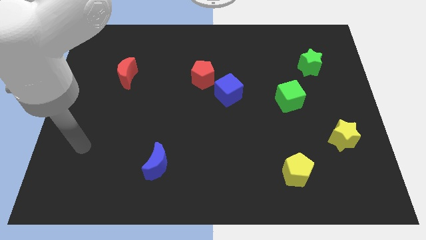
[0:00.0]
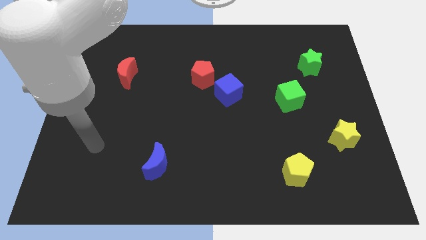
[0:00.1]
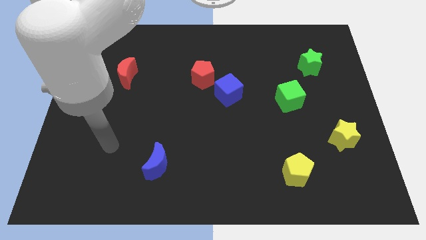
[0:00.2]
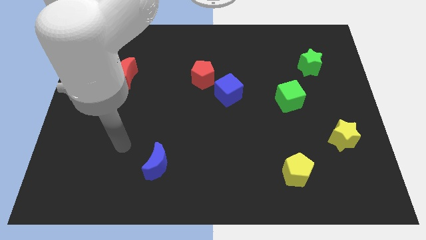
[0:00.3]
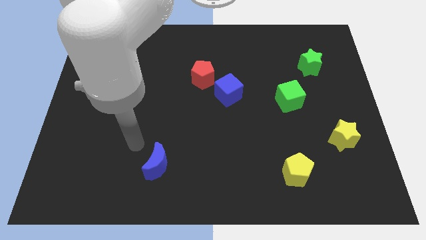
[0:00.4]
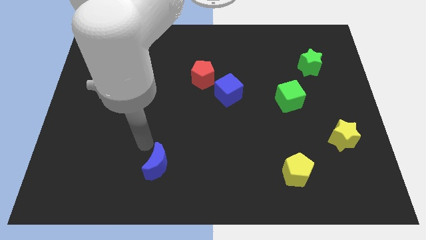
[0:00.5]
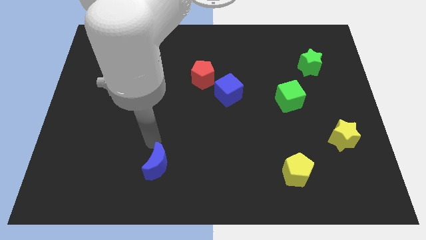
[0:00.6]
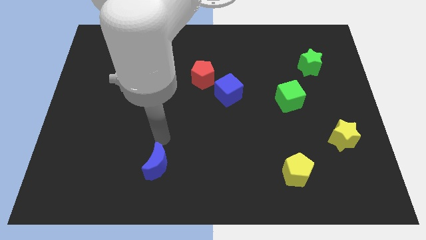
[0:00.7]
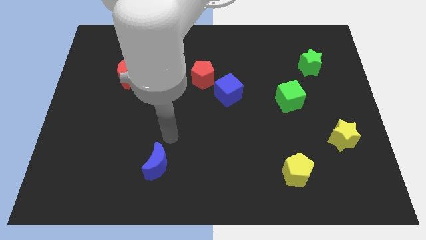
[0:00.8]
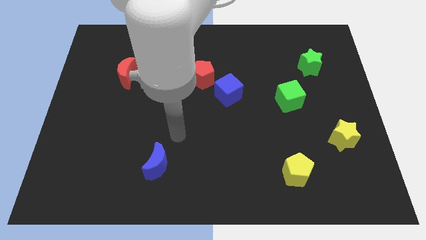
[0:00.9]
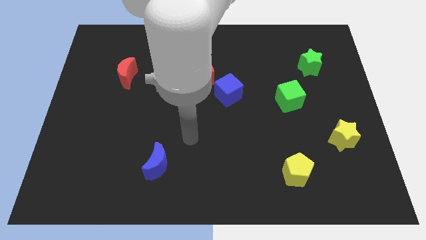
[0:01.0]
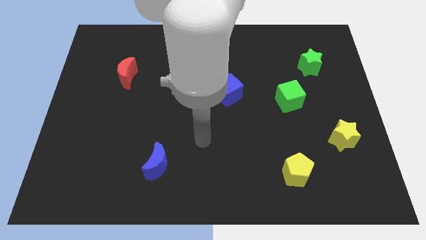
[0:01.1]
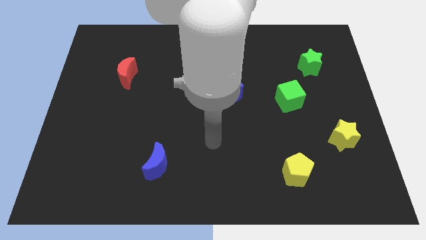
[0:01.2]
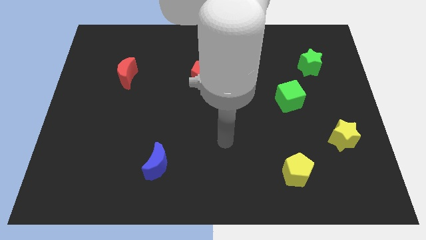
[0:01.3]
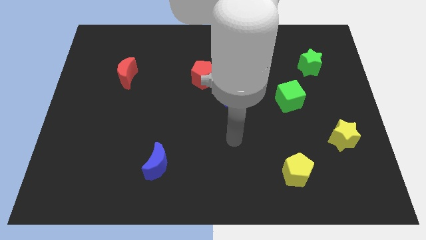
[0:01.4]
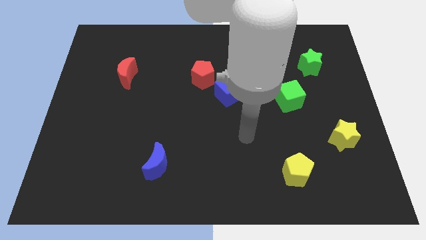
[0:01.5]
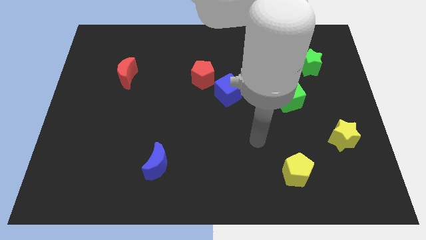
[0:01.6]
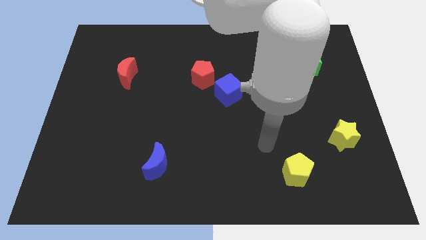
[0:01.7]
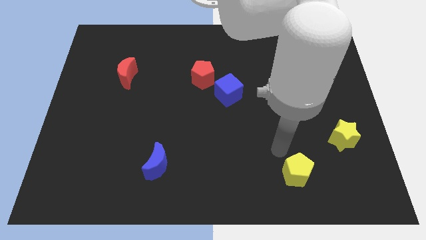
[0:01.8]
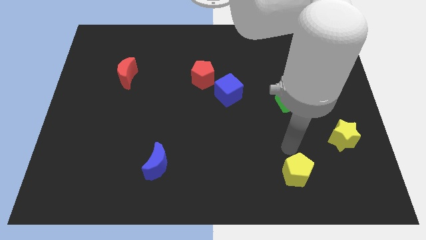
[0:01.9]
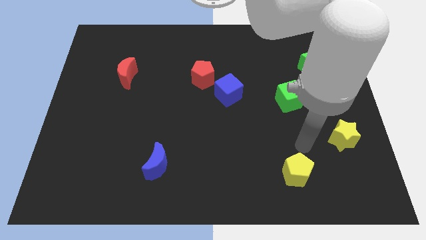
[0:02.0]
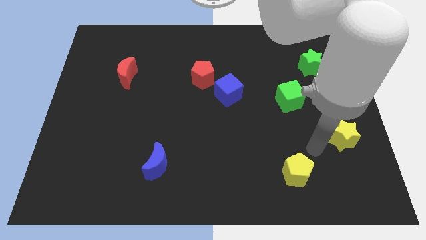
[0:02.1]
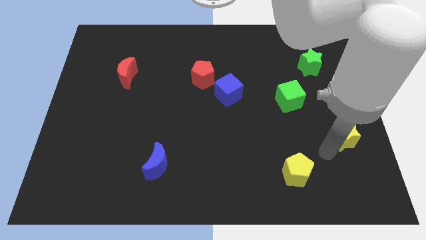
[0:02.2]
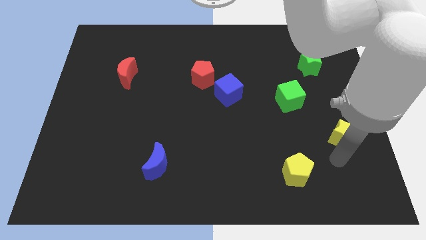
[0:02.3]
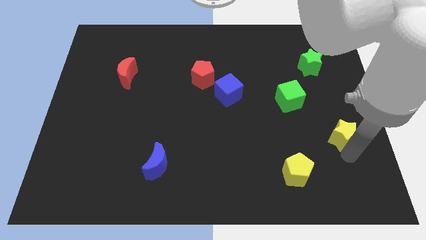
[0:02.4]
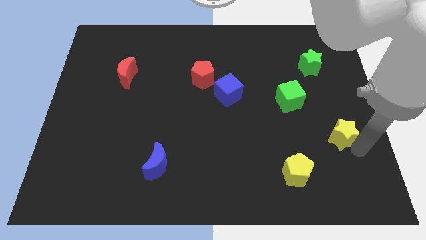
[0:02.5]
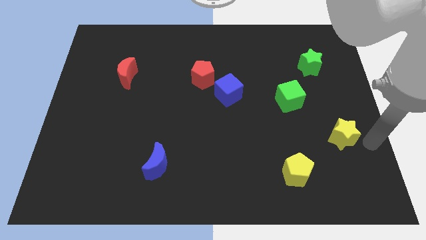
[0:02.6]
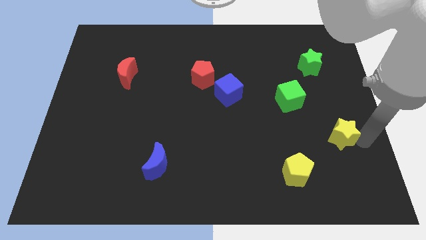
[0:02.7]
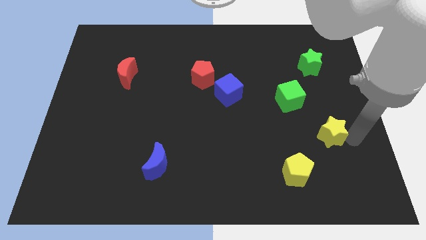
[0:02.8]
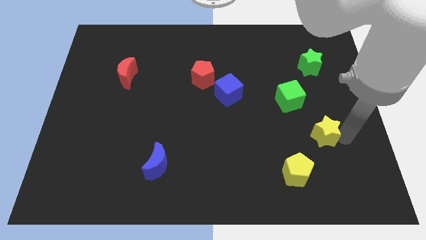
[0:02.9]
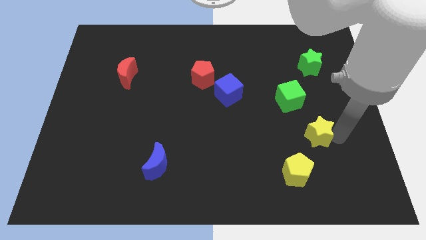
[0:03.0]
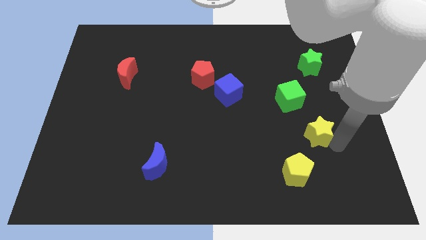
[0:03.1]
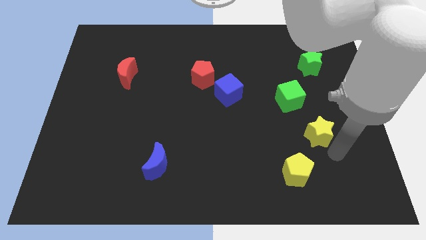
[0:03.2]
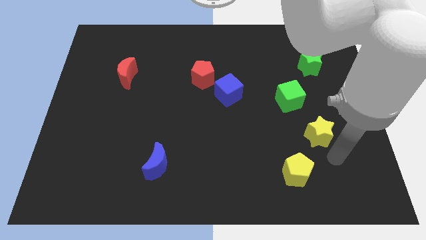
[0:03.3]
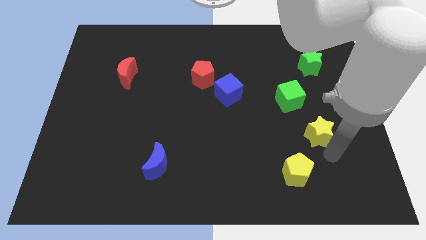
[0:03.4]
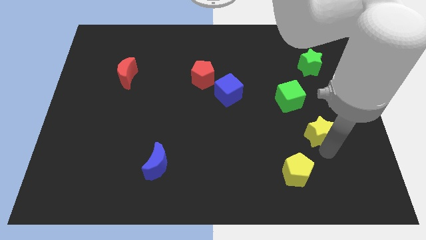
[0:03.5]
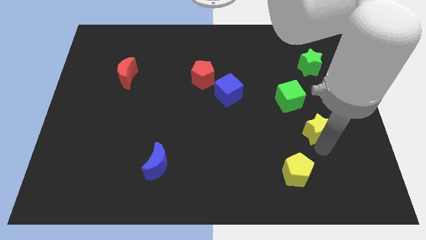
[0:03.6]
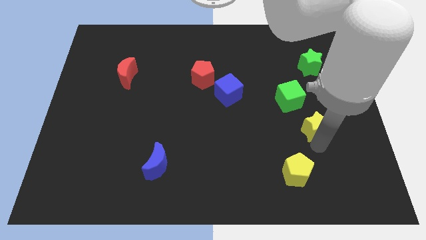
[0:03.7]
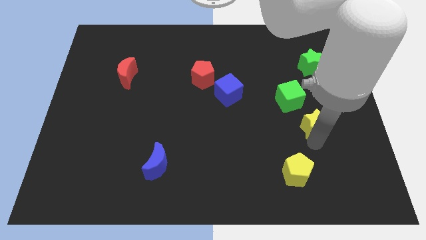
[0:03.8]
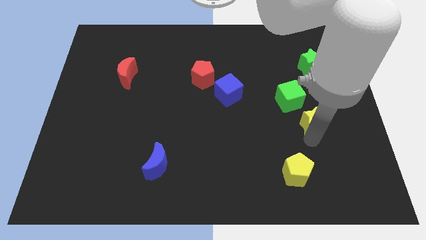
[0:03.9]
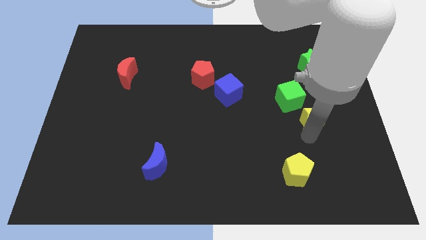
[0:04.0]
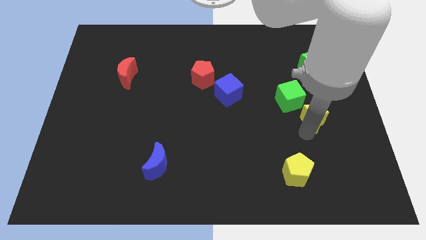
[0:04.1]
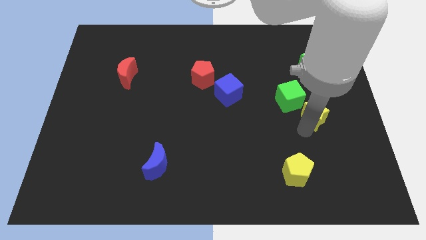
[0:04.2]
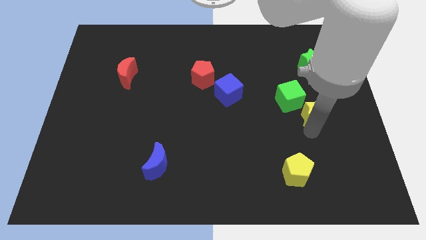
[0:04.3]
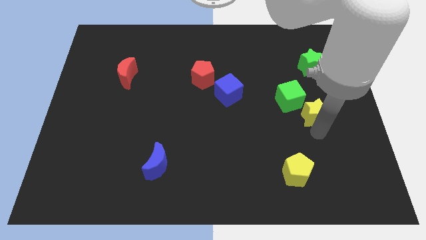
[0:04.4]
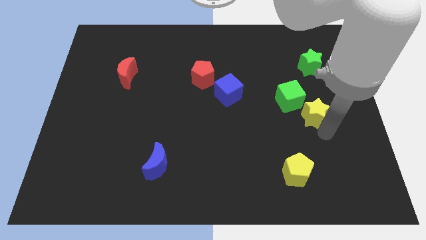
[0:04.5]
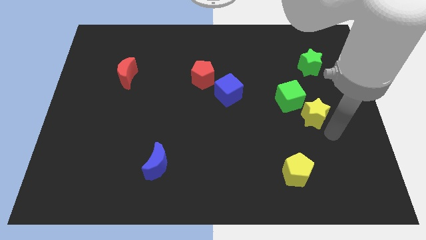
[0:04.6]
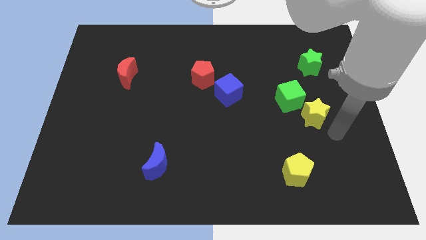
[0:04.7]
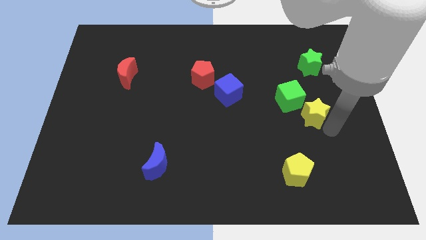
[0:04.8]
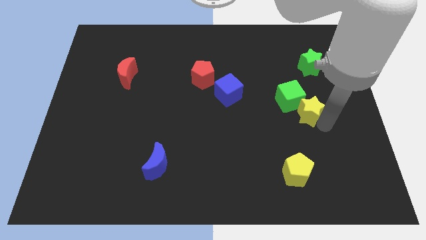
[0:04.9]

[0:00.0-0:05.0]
push the yellow star towards the green cube

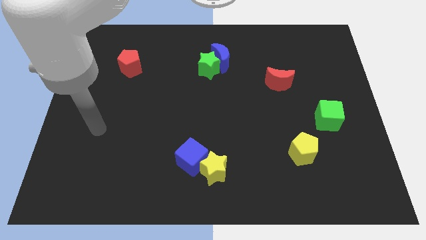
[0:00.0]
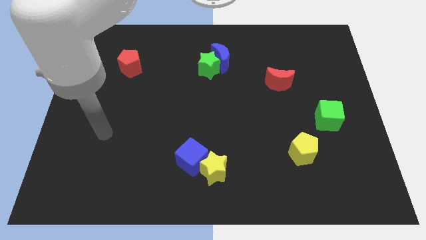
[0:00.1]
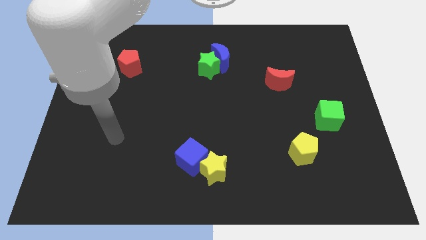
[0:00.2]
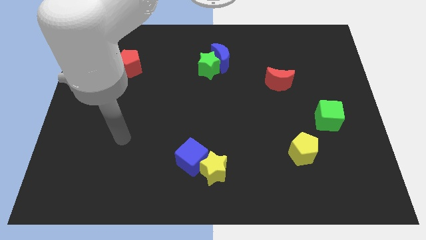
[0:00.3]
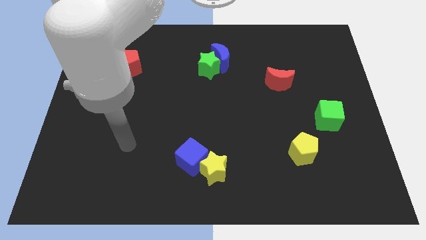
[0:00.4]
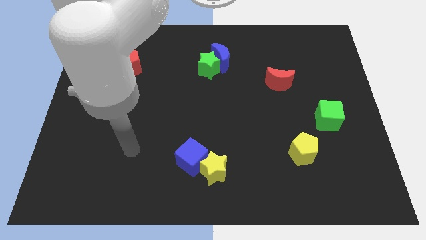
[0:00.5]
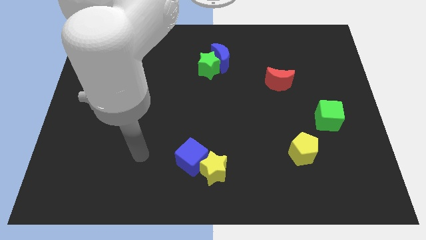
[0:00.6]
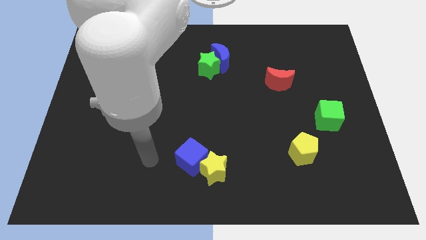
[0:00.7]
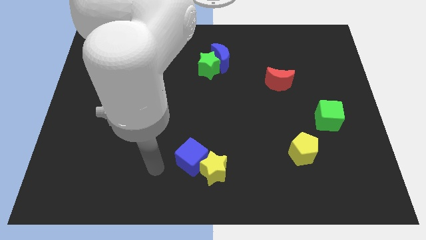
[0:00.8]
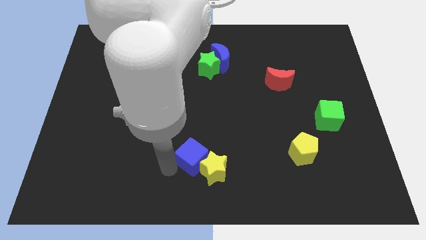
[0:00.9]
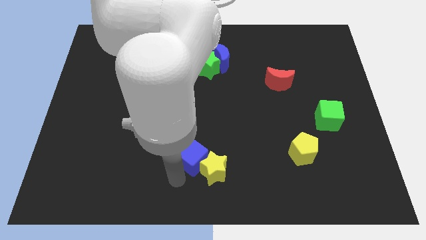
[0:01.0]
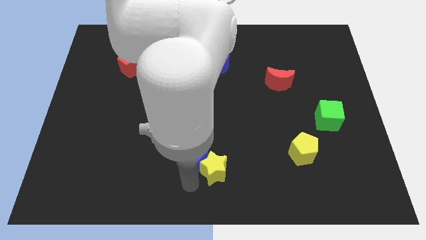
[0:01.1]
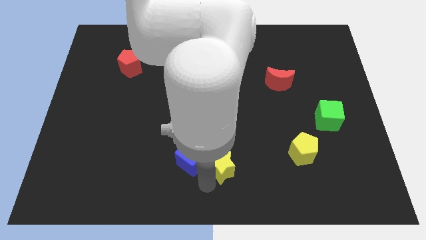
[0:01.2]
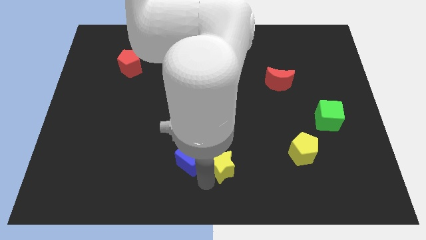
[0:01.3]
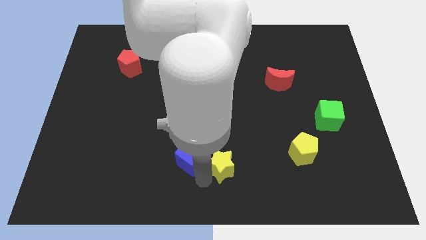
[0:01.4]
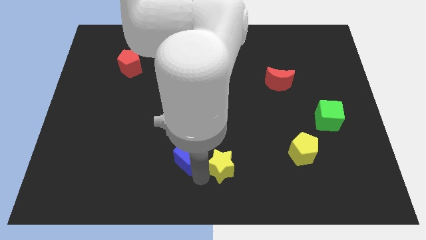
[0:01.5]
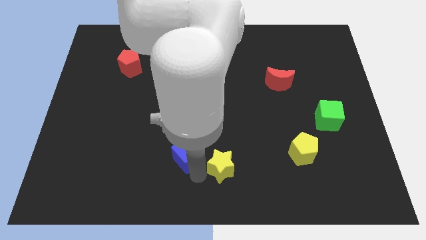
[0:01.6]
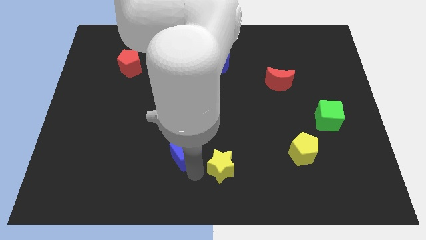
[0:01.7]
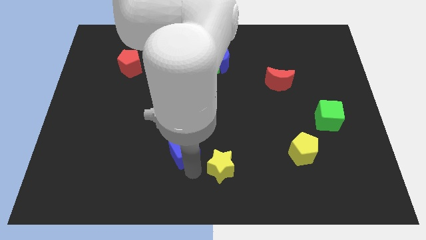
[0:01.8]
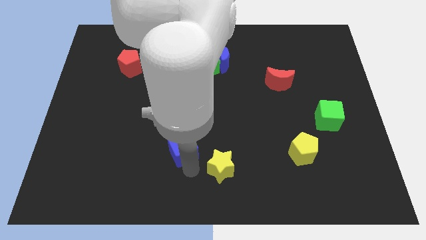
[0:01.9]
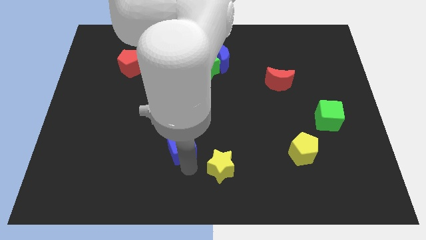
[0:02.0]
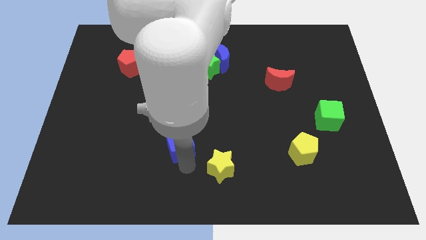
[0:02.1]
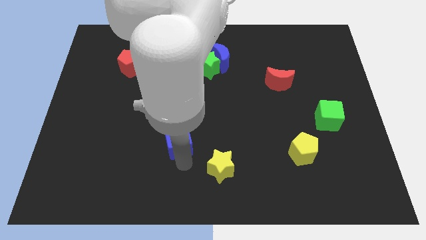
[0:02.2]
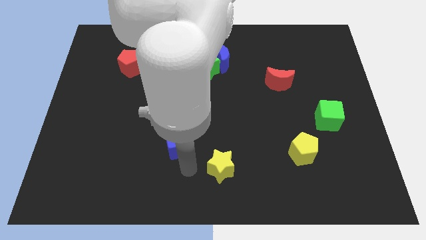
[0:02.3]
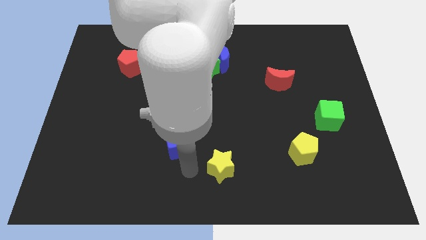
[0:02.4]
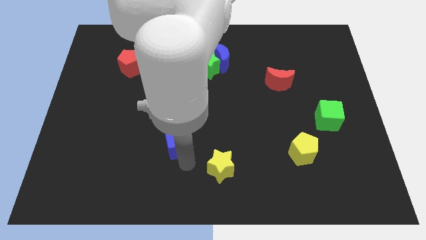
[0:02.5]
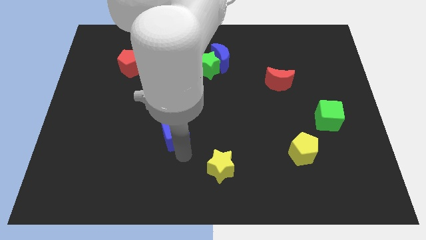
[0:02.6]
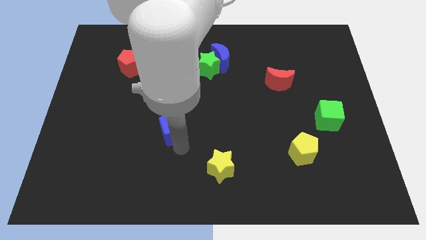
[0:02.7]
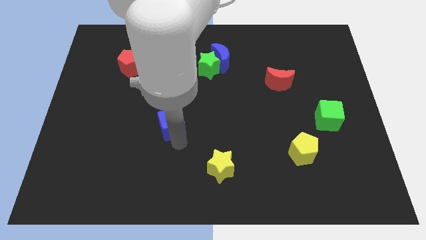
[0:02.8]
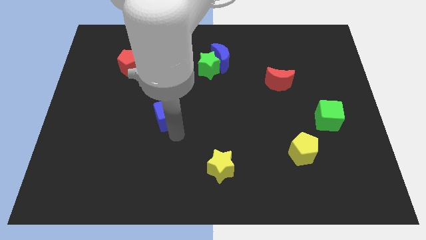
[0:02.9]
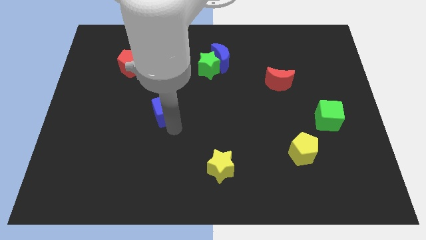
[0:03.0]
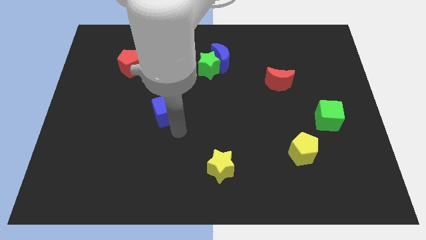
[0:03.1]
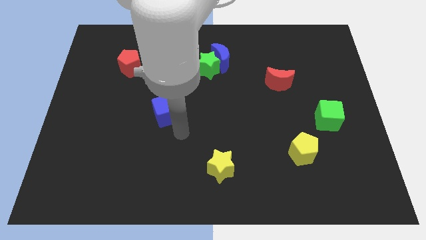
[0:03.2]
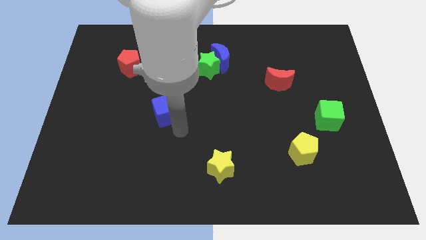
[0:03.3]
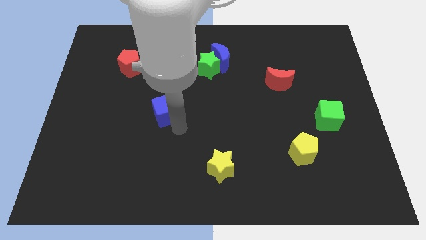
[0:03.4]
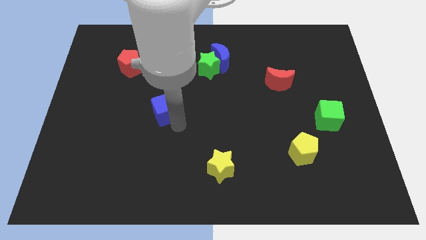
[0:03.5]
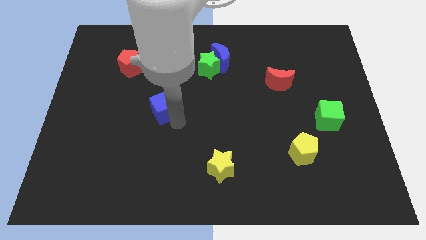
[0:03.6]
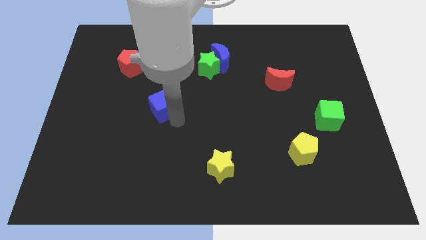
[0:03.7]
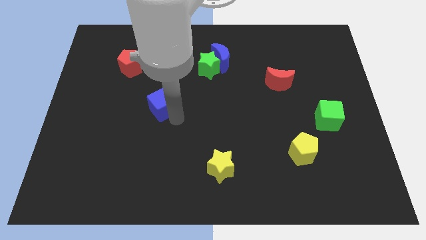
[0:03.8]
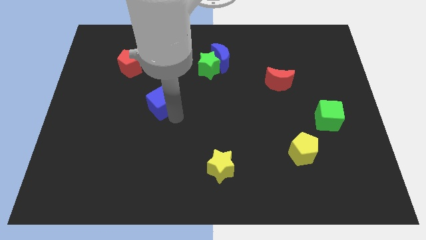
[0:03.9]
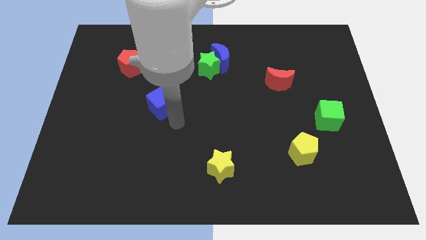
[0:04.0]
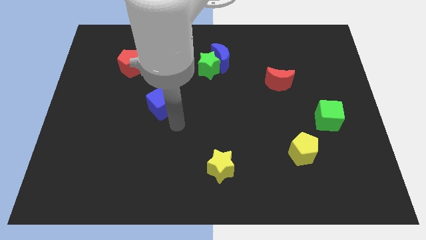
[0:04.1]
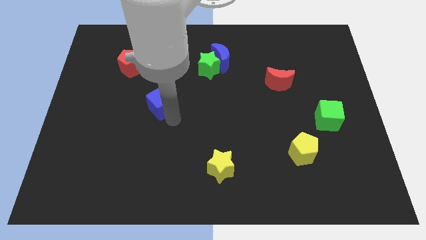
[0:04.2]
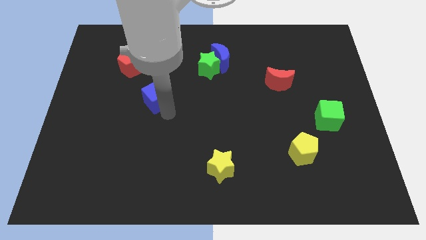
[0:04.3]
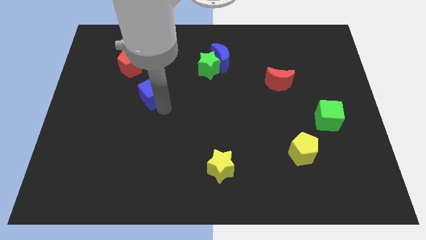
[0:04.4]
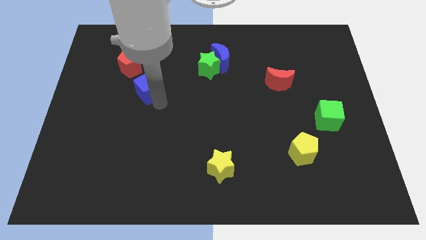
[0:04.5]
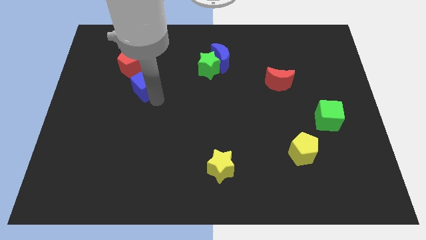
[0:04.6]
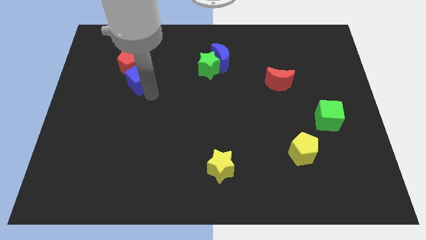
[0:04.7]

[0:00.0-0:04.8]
move the blue cube next to the red pentagon
